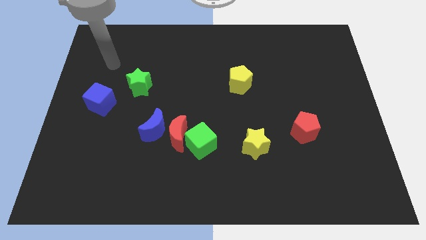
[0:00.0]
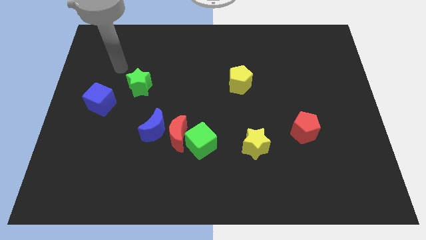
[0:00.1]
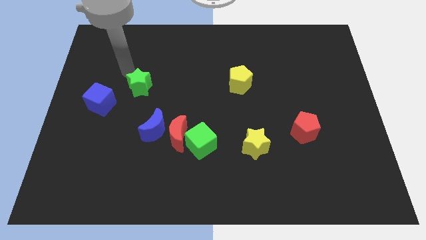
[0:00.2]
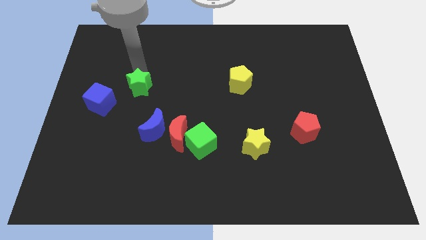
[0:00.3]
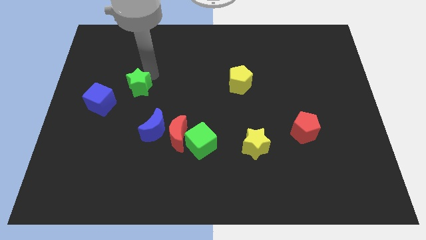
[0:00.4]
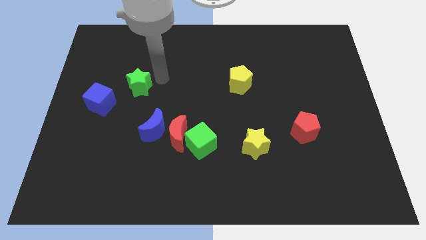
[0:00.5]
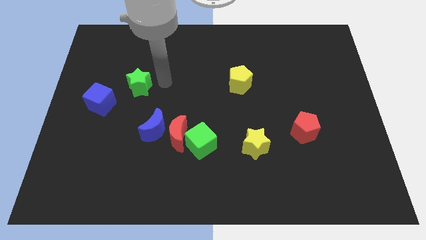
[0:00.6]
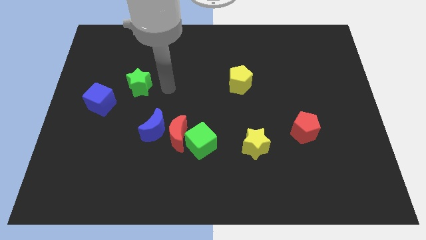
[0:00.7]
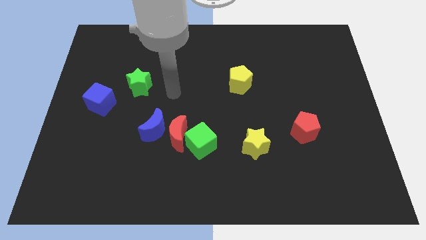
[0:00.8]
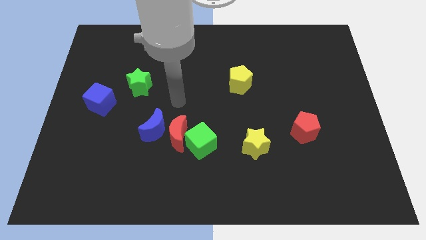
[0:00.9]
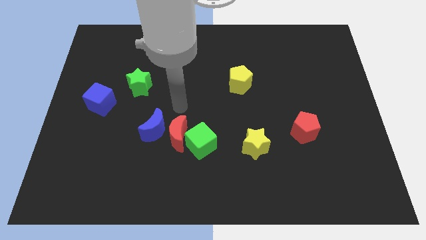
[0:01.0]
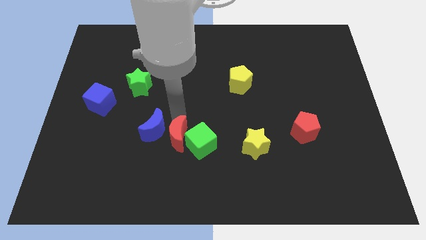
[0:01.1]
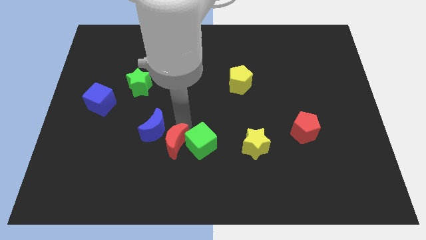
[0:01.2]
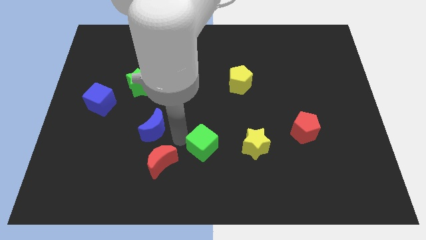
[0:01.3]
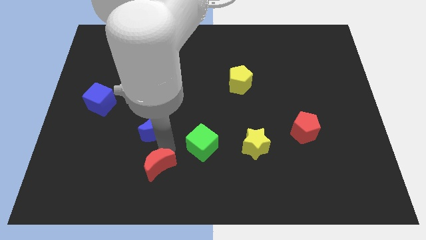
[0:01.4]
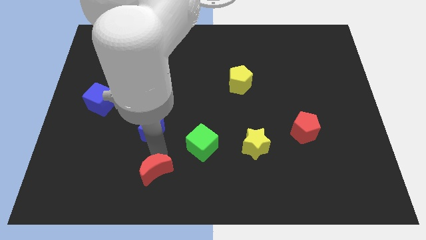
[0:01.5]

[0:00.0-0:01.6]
separate the blue moon from the red moon

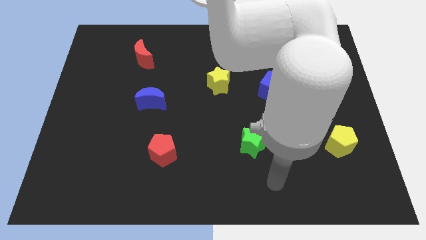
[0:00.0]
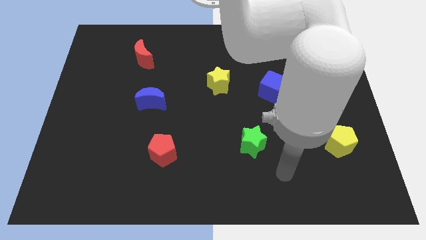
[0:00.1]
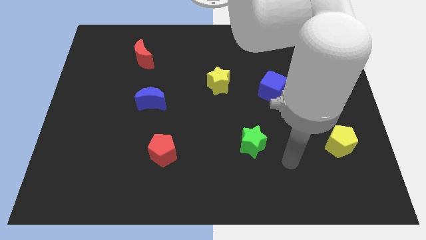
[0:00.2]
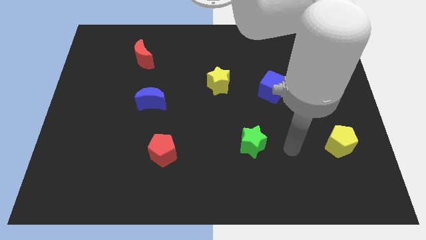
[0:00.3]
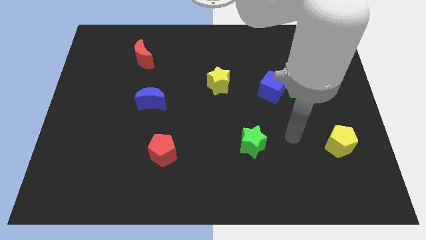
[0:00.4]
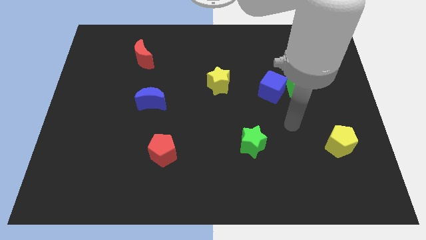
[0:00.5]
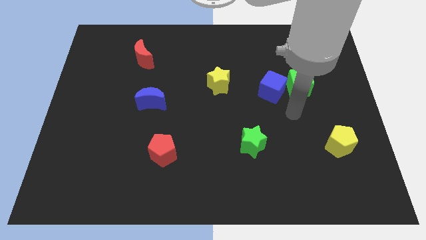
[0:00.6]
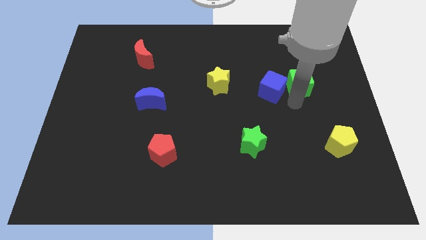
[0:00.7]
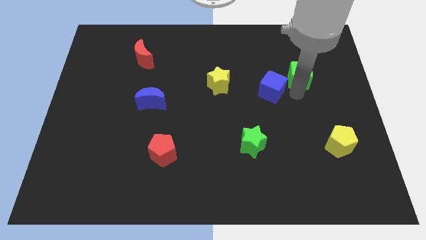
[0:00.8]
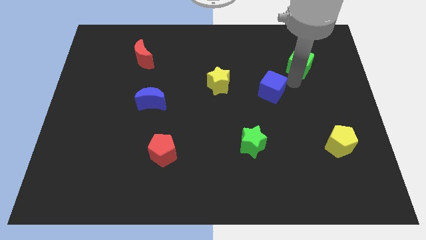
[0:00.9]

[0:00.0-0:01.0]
move the blue cube away from the green cube

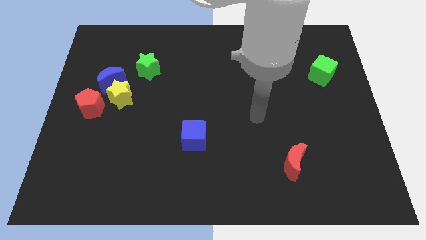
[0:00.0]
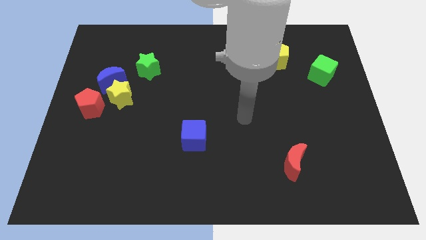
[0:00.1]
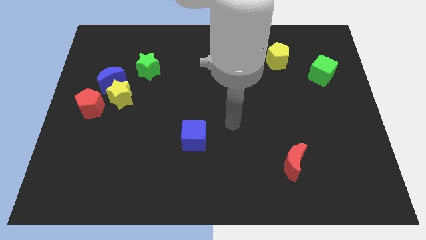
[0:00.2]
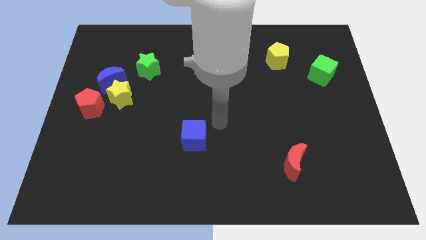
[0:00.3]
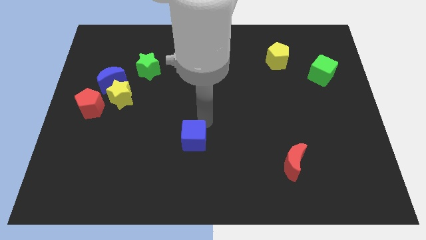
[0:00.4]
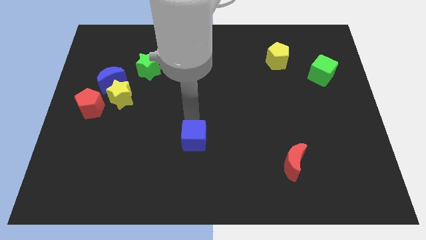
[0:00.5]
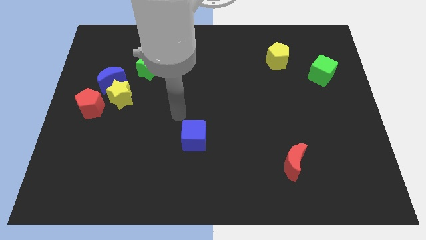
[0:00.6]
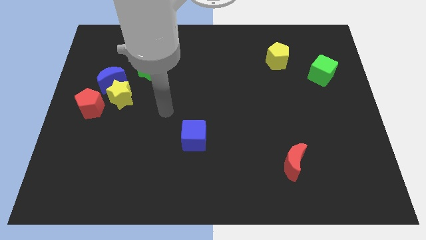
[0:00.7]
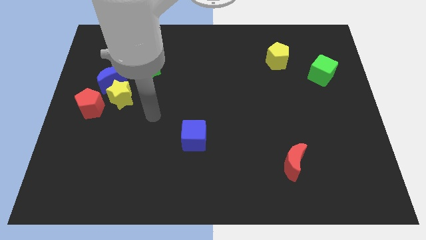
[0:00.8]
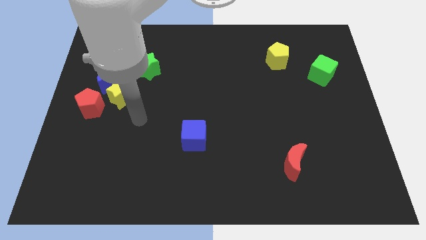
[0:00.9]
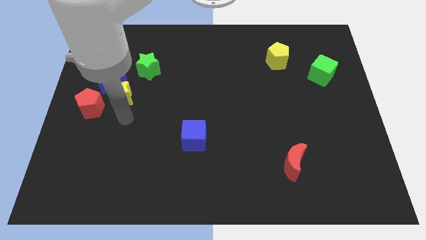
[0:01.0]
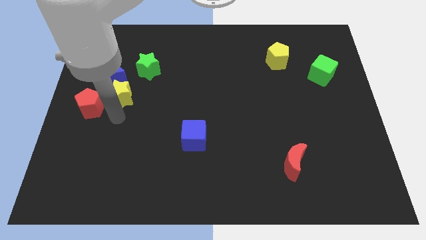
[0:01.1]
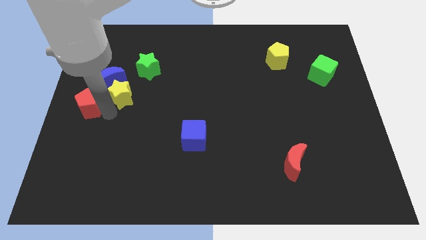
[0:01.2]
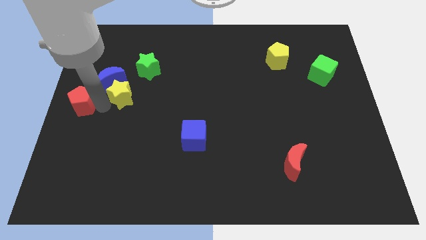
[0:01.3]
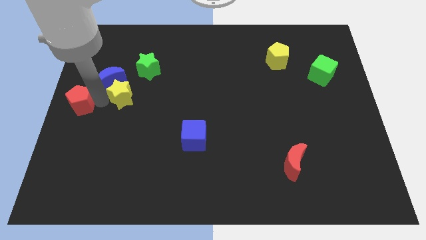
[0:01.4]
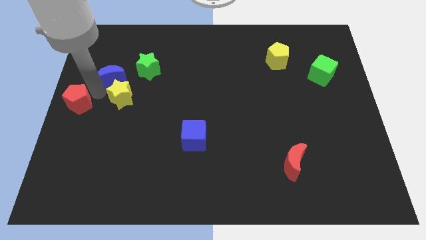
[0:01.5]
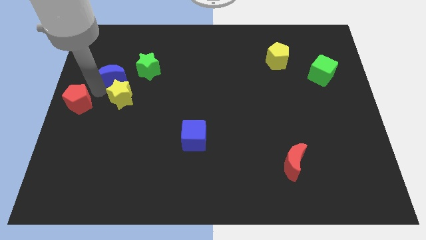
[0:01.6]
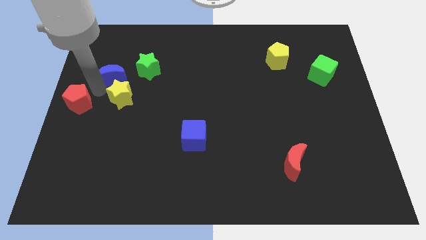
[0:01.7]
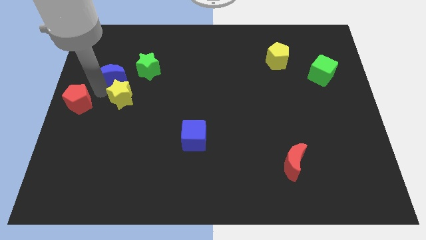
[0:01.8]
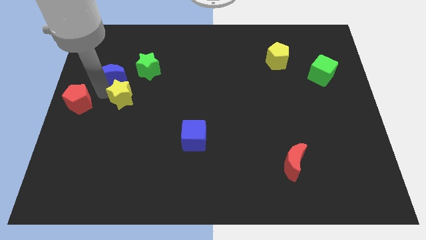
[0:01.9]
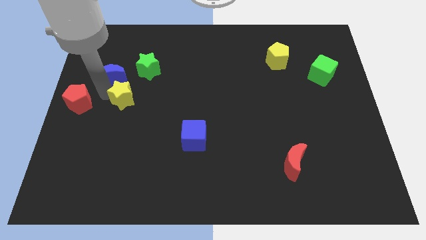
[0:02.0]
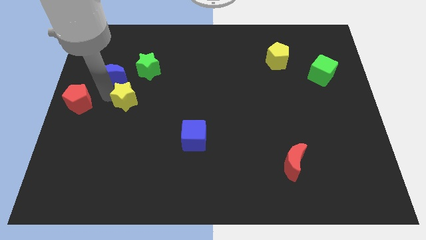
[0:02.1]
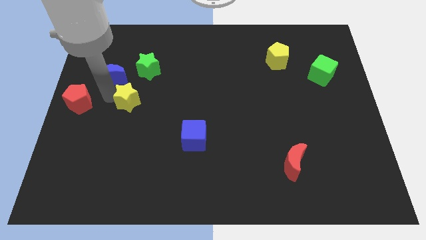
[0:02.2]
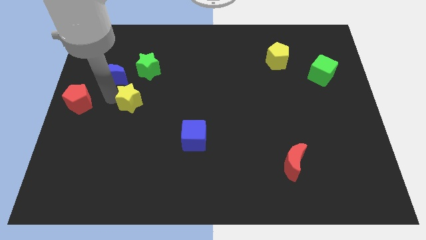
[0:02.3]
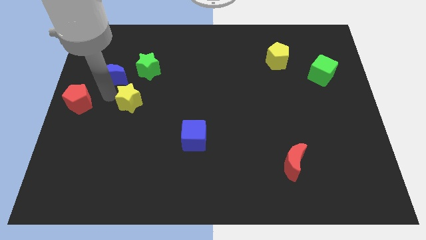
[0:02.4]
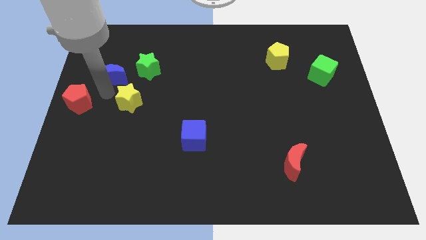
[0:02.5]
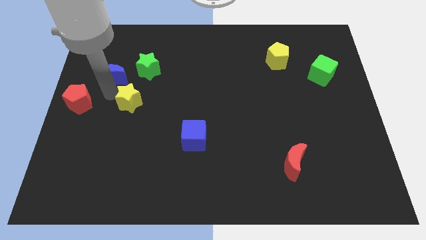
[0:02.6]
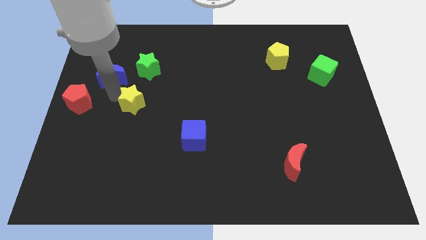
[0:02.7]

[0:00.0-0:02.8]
move the yellow star away from the blue moon and red pentagon

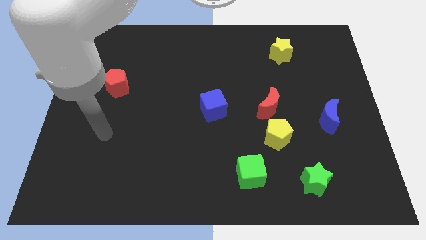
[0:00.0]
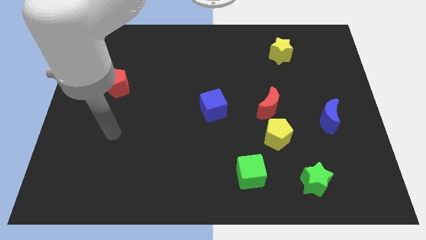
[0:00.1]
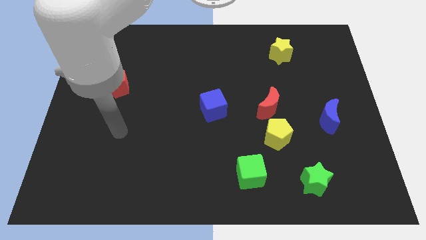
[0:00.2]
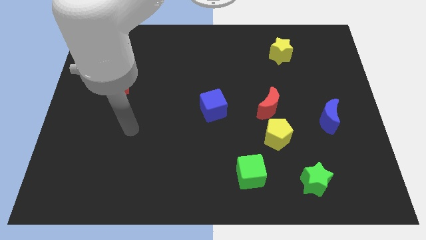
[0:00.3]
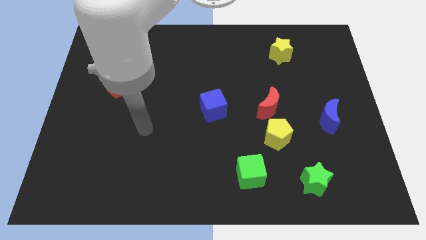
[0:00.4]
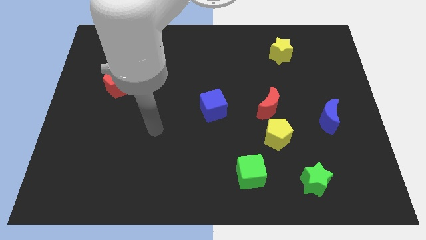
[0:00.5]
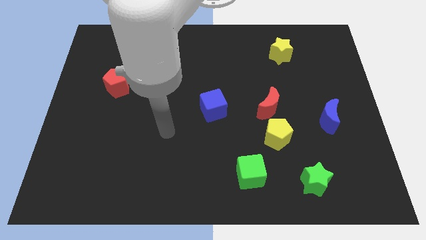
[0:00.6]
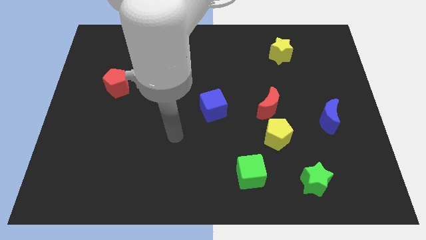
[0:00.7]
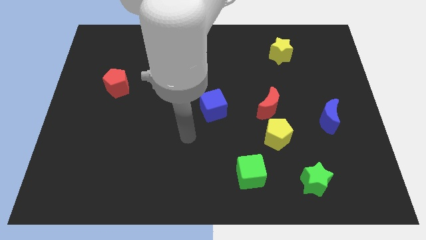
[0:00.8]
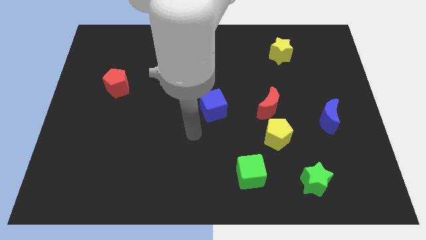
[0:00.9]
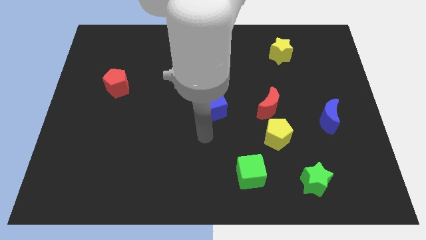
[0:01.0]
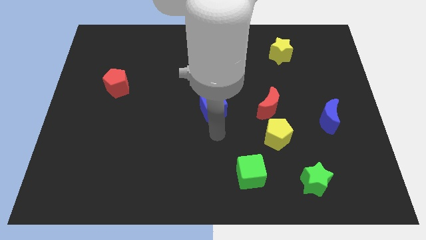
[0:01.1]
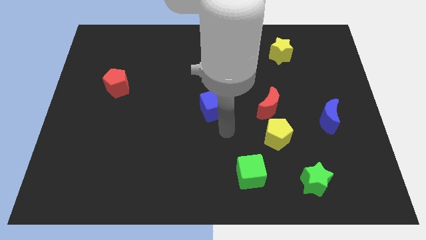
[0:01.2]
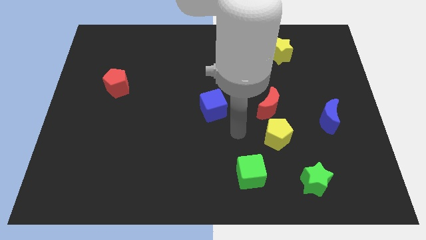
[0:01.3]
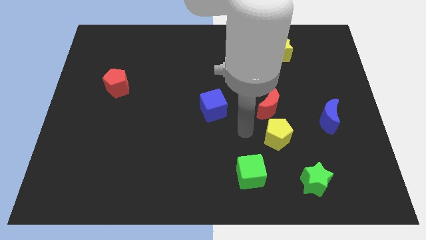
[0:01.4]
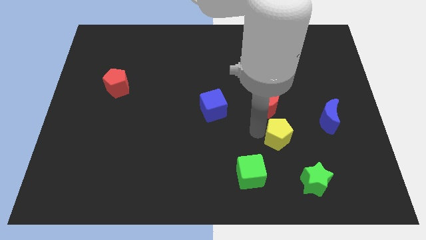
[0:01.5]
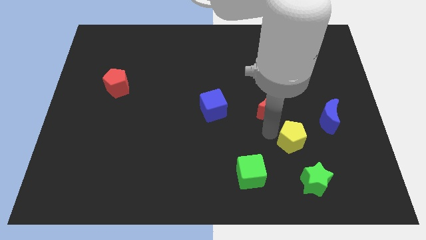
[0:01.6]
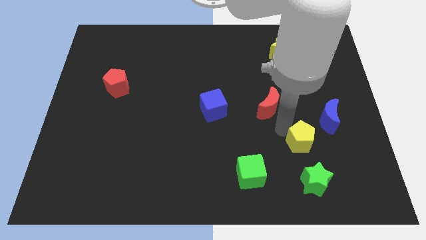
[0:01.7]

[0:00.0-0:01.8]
separate the red moon from the yellow pentagon

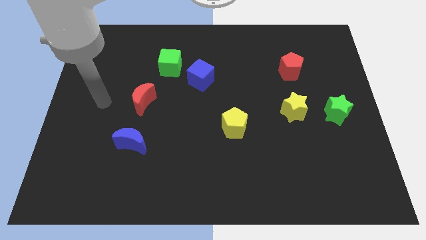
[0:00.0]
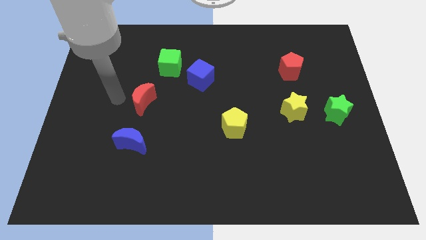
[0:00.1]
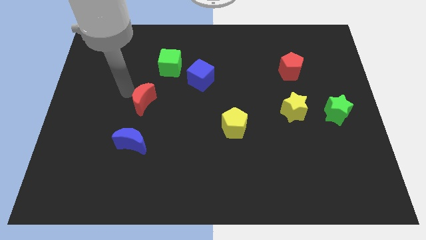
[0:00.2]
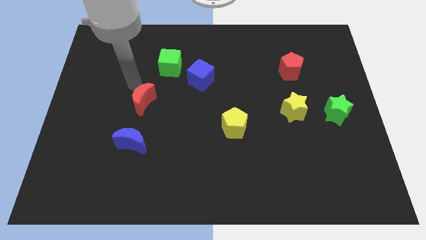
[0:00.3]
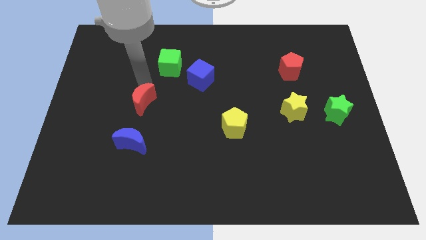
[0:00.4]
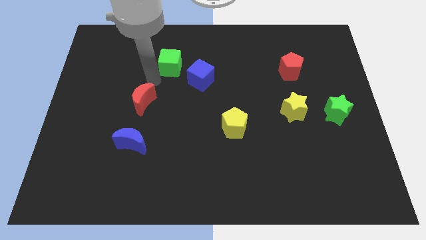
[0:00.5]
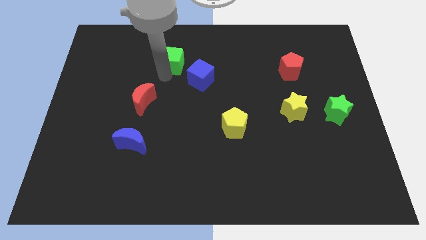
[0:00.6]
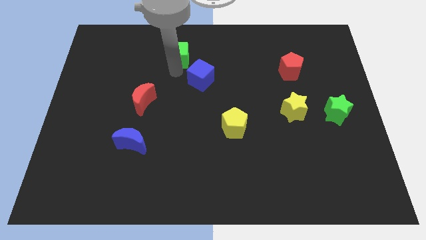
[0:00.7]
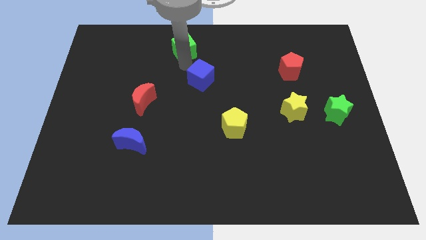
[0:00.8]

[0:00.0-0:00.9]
pull the blue cube apart from the green cube

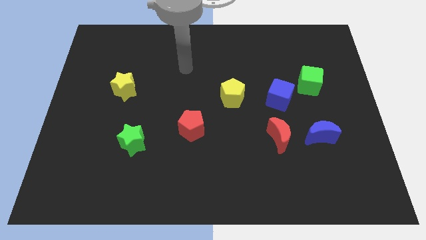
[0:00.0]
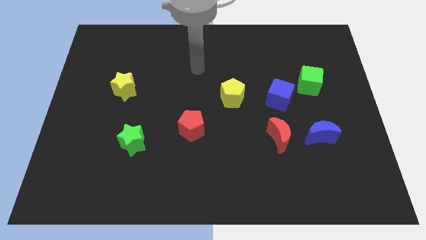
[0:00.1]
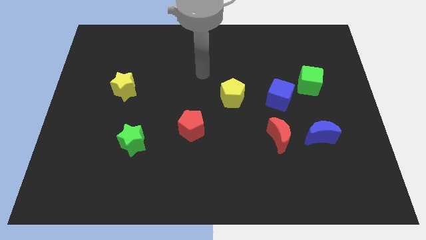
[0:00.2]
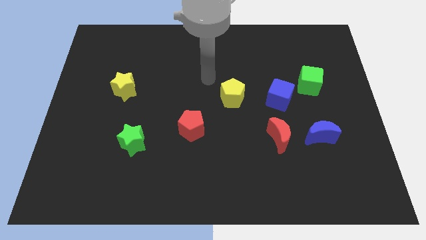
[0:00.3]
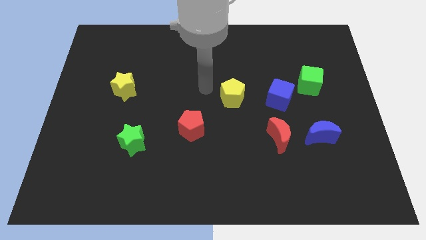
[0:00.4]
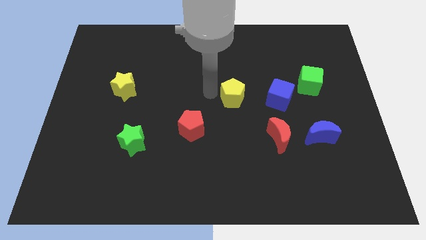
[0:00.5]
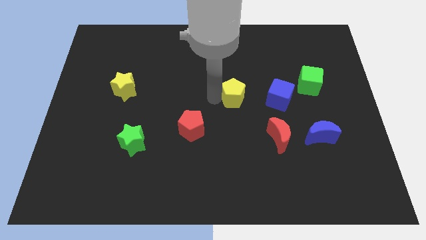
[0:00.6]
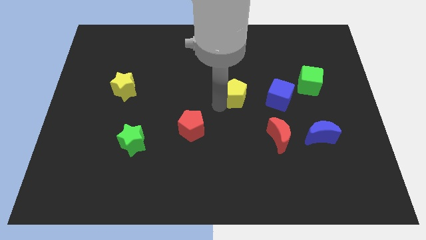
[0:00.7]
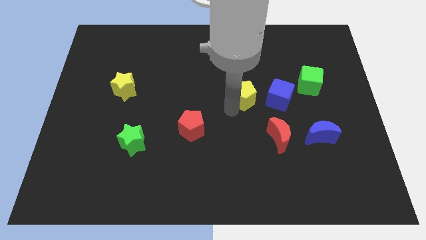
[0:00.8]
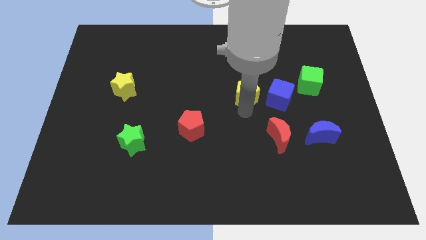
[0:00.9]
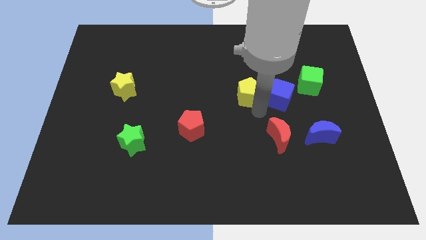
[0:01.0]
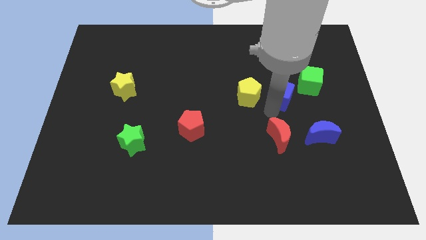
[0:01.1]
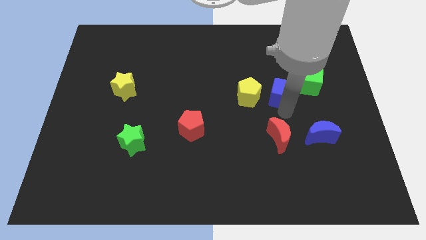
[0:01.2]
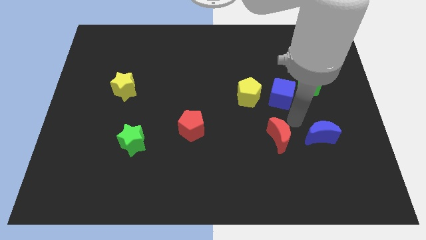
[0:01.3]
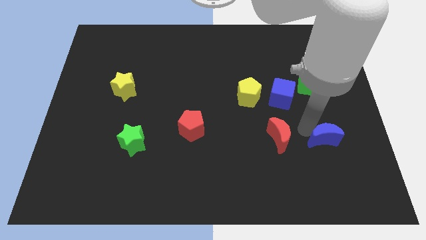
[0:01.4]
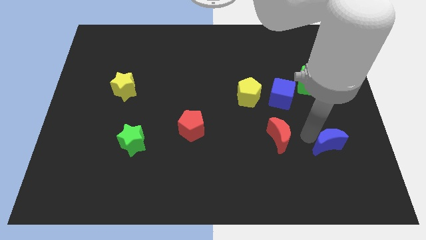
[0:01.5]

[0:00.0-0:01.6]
move the red moon away from the blue moon
